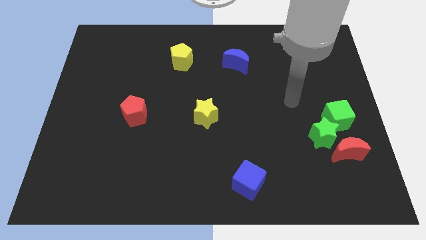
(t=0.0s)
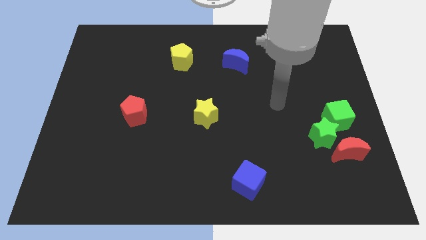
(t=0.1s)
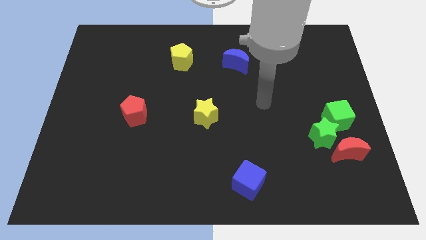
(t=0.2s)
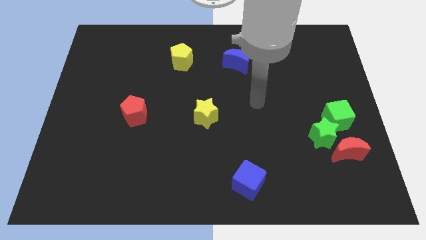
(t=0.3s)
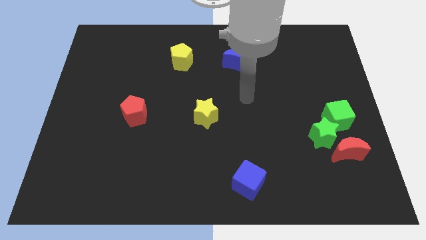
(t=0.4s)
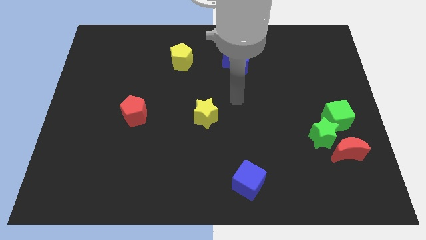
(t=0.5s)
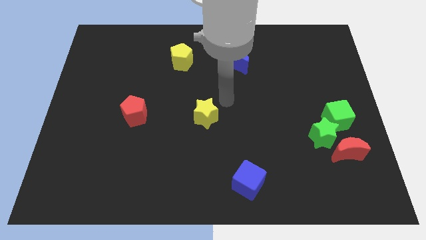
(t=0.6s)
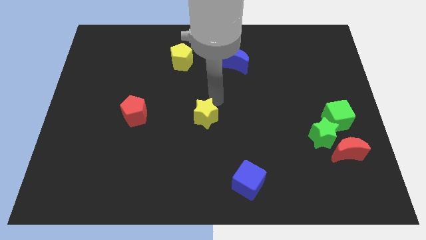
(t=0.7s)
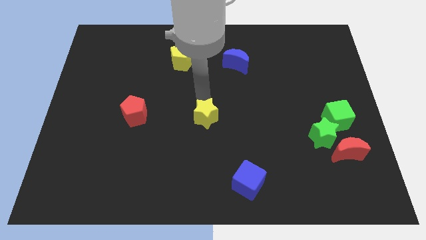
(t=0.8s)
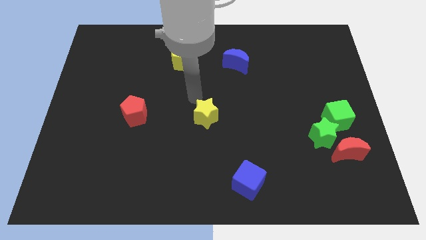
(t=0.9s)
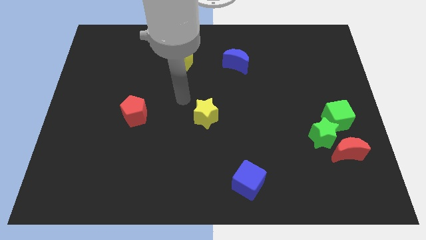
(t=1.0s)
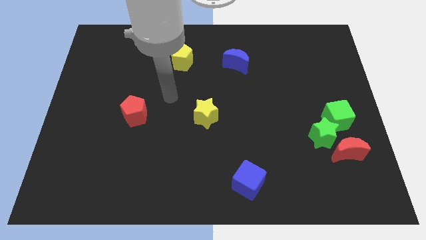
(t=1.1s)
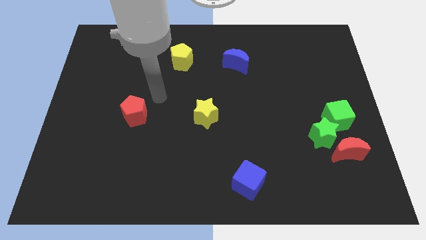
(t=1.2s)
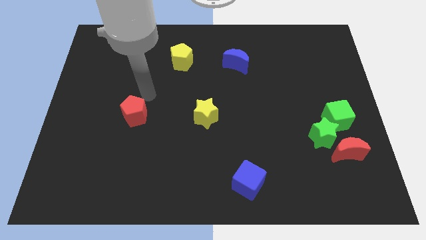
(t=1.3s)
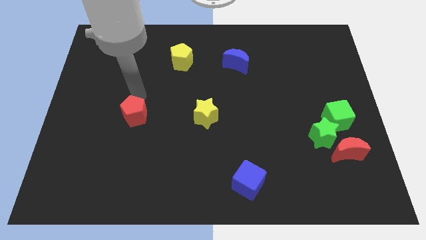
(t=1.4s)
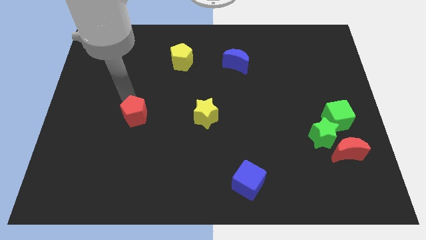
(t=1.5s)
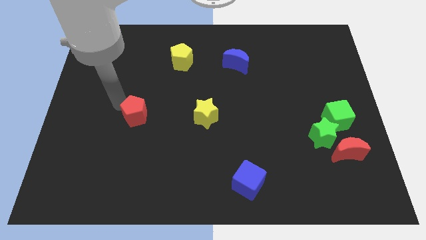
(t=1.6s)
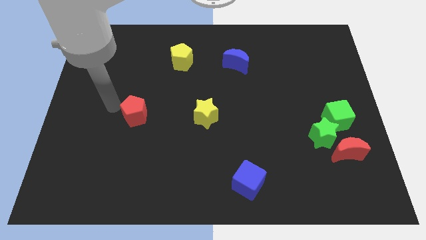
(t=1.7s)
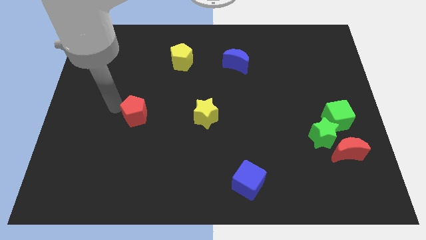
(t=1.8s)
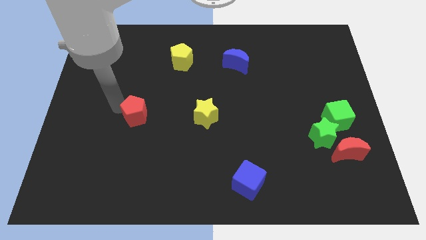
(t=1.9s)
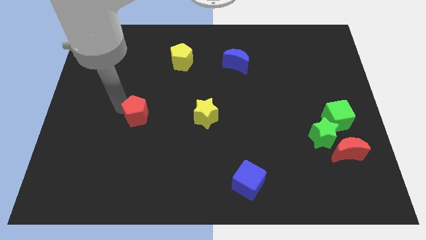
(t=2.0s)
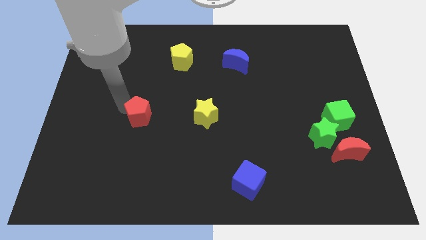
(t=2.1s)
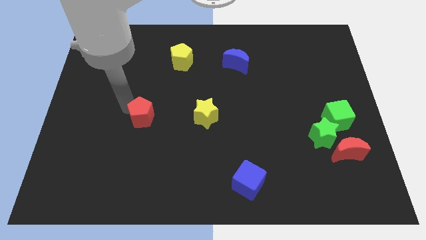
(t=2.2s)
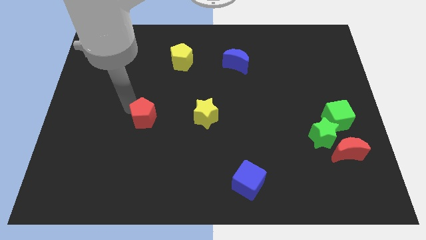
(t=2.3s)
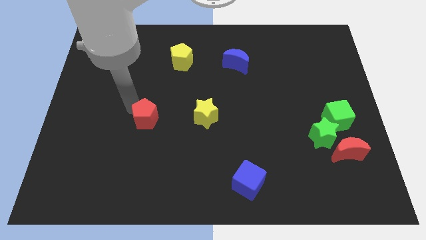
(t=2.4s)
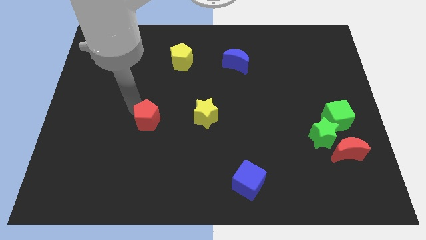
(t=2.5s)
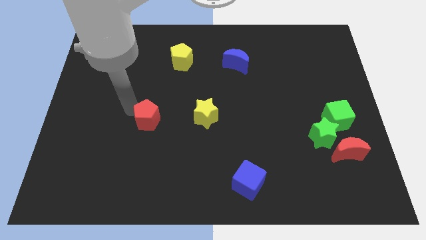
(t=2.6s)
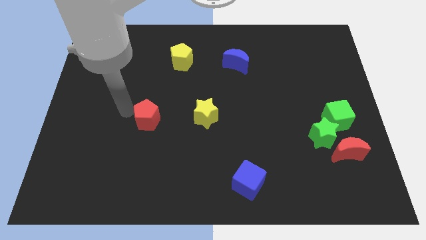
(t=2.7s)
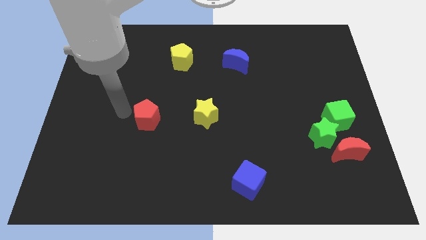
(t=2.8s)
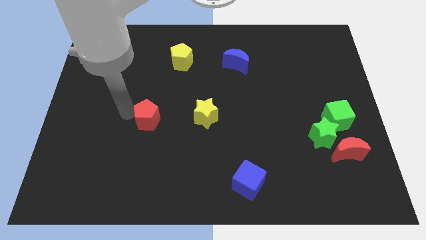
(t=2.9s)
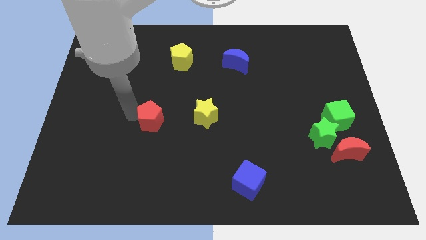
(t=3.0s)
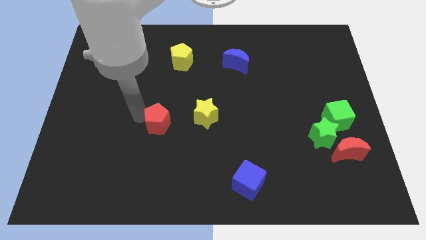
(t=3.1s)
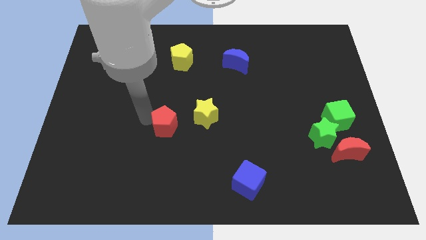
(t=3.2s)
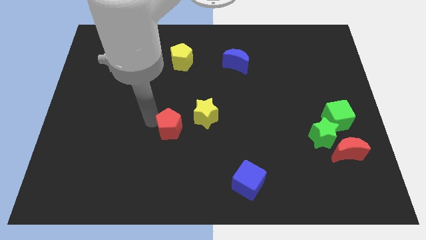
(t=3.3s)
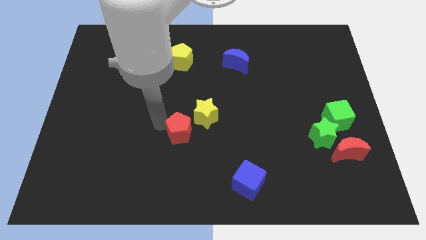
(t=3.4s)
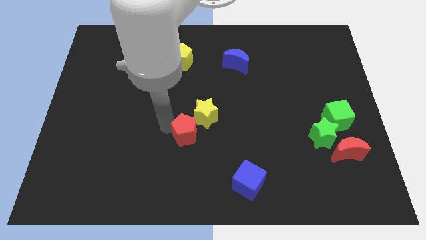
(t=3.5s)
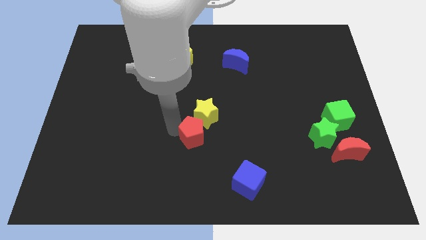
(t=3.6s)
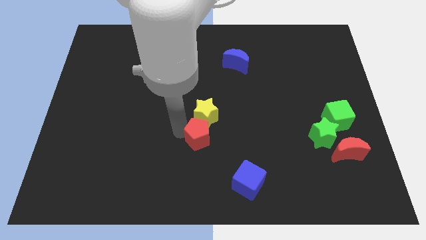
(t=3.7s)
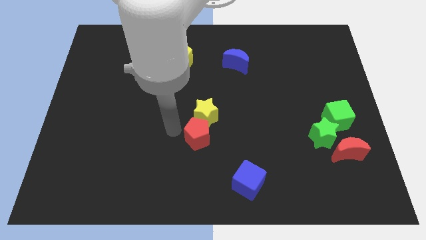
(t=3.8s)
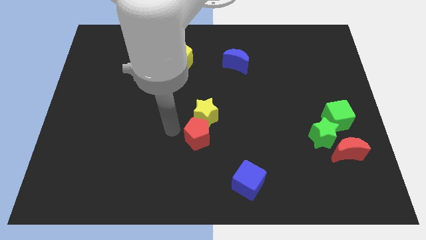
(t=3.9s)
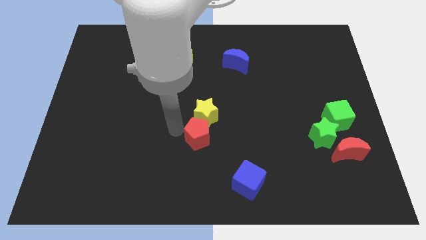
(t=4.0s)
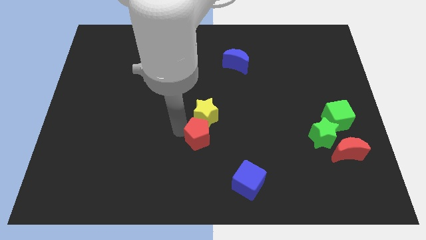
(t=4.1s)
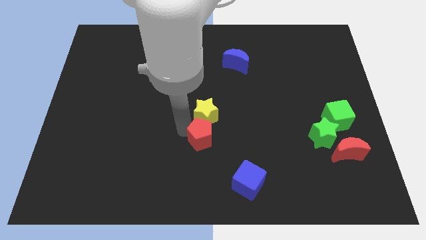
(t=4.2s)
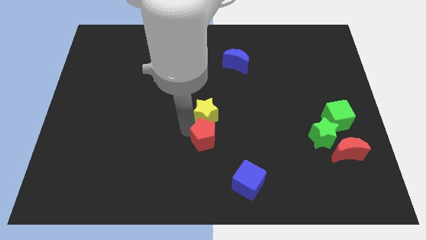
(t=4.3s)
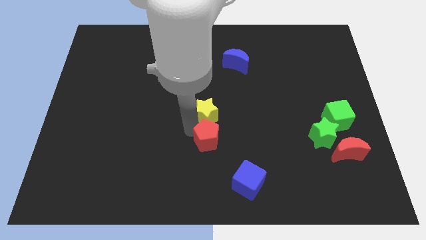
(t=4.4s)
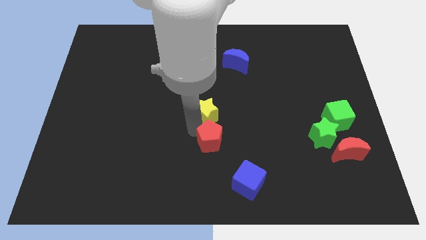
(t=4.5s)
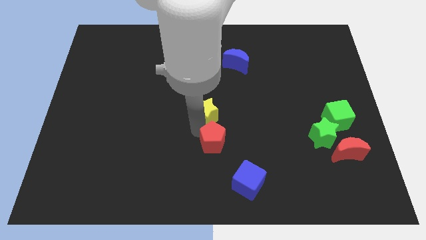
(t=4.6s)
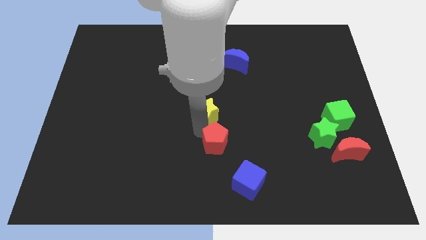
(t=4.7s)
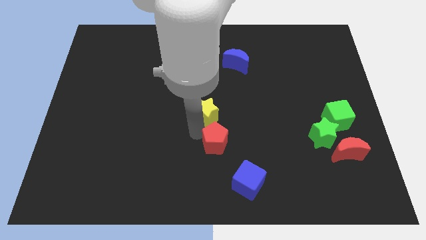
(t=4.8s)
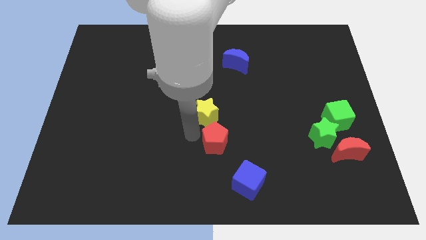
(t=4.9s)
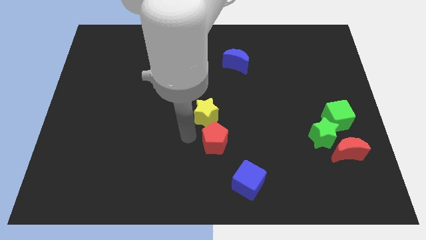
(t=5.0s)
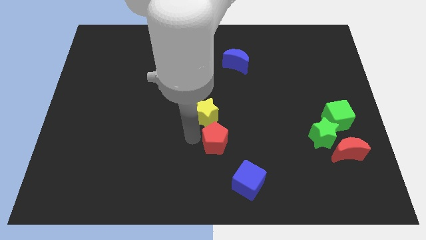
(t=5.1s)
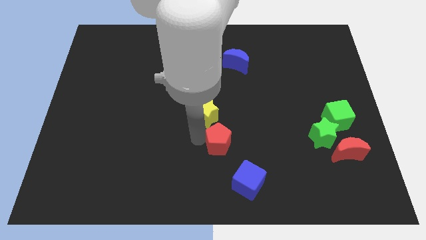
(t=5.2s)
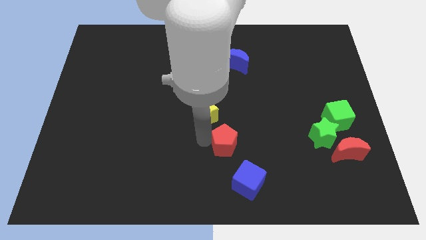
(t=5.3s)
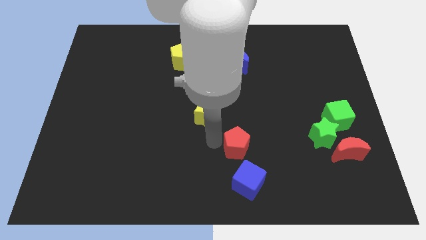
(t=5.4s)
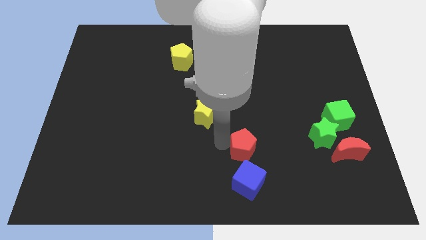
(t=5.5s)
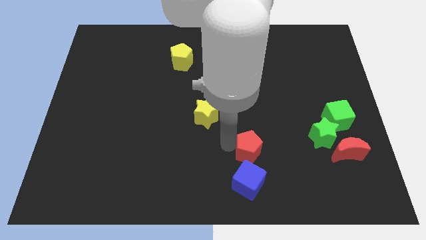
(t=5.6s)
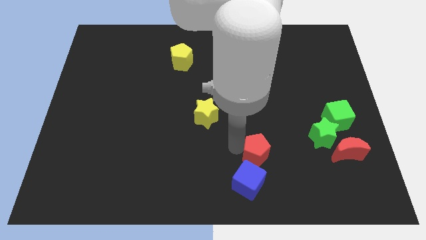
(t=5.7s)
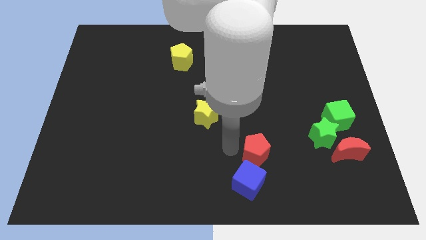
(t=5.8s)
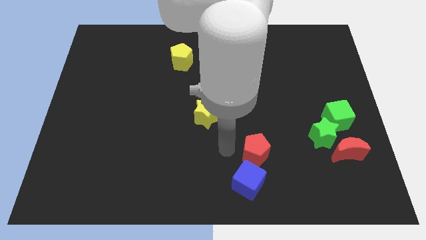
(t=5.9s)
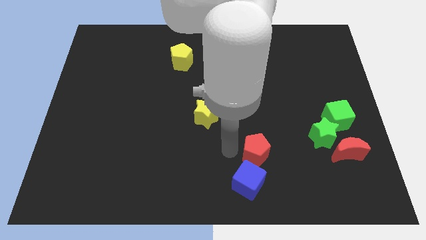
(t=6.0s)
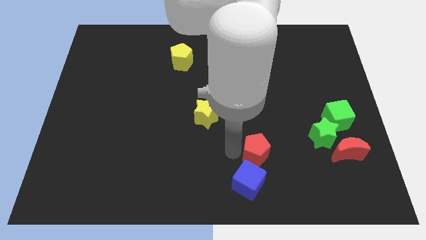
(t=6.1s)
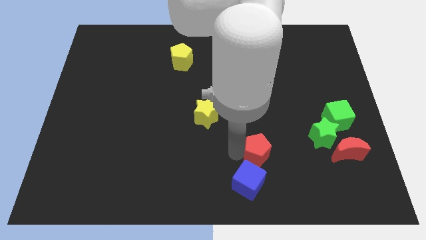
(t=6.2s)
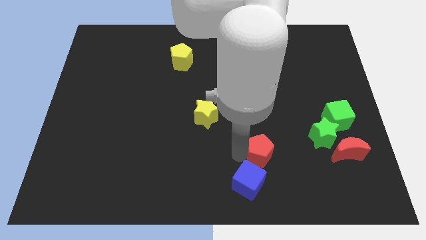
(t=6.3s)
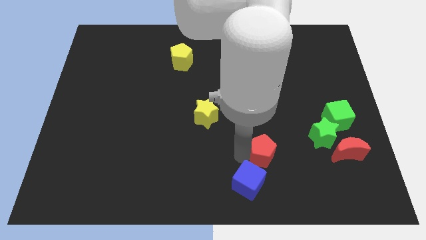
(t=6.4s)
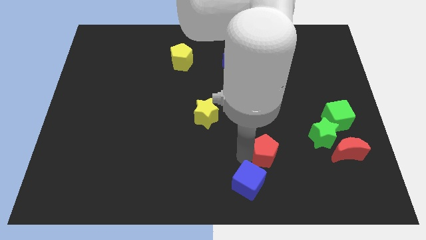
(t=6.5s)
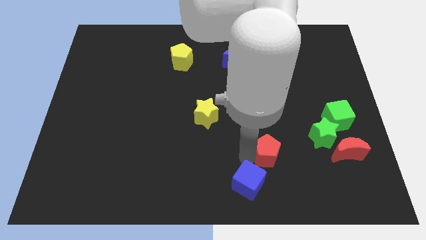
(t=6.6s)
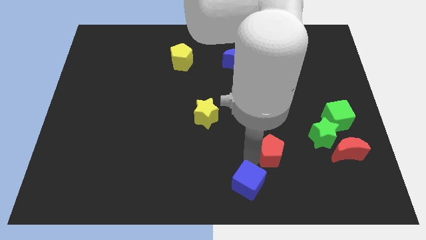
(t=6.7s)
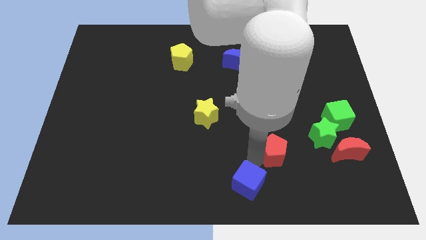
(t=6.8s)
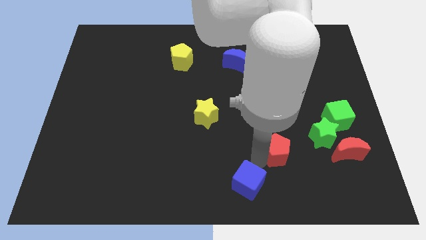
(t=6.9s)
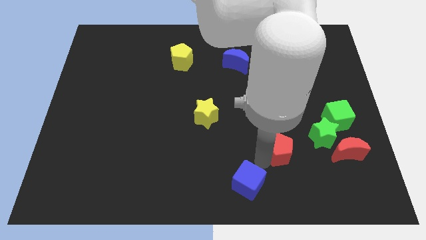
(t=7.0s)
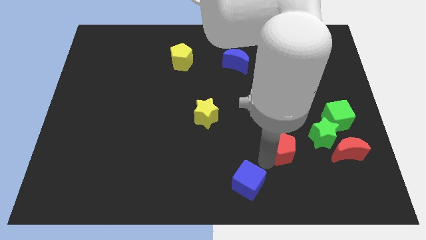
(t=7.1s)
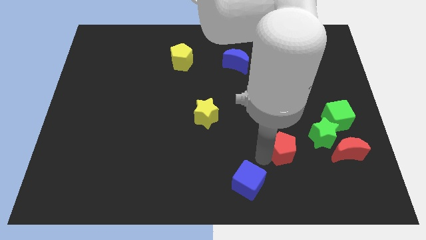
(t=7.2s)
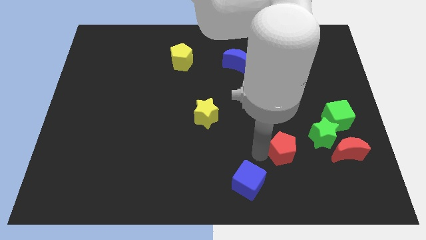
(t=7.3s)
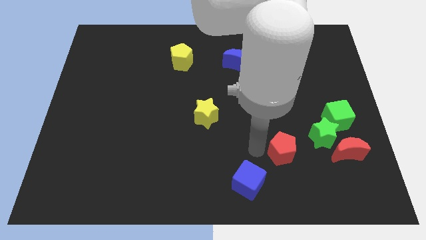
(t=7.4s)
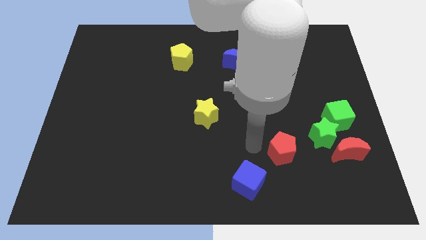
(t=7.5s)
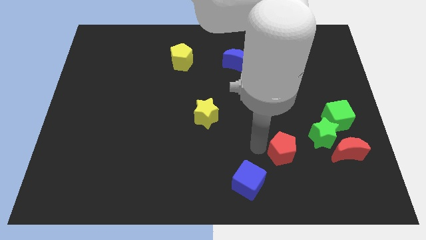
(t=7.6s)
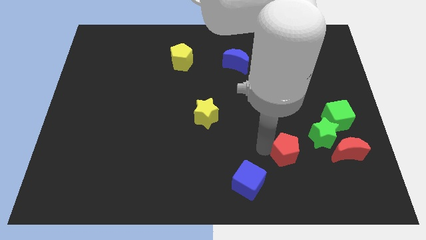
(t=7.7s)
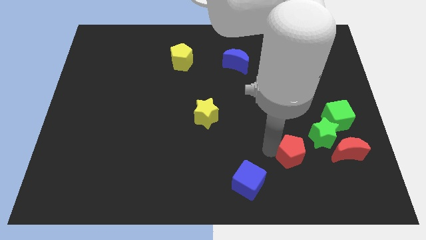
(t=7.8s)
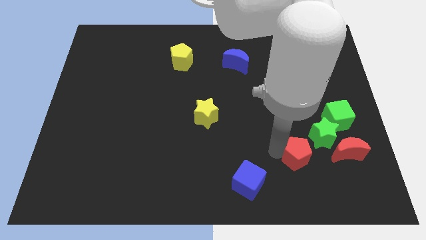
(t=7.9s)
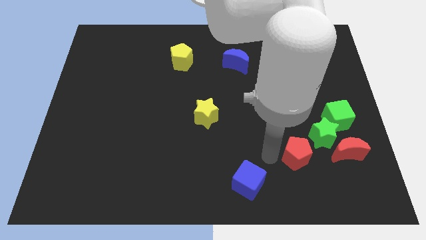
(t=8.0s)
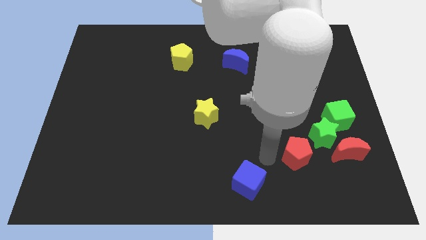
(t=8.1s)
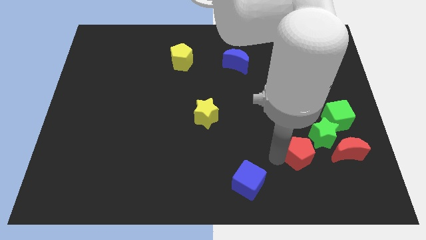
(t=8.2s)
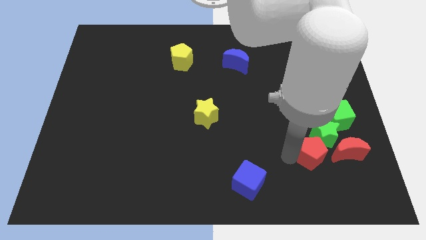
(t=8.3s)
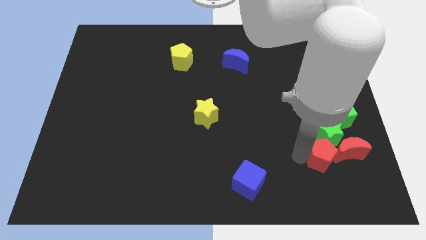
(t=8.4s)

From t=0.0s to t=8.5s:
slide the red pentagon towards the red moon
